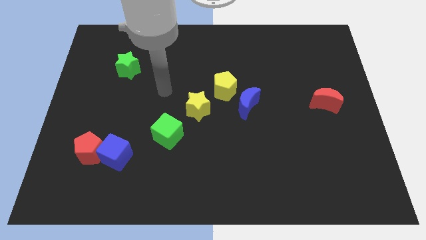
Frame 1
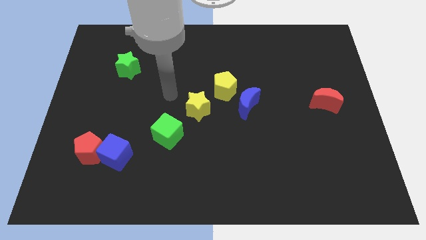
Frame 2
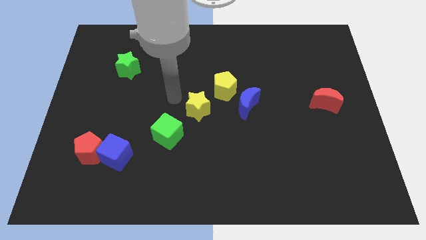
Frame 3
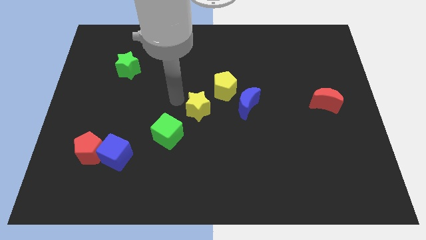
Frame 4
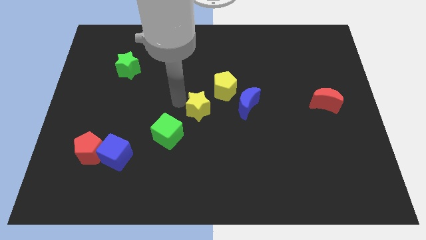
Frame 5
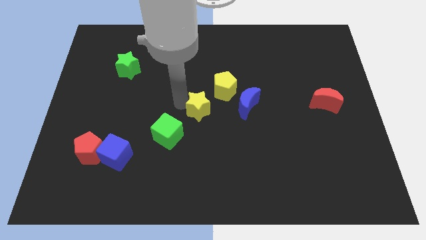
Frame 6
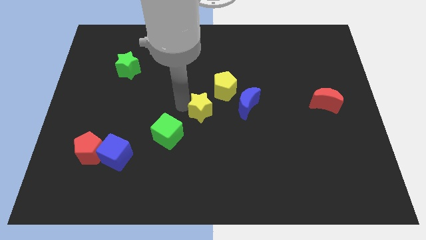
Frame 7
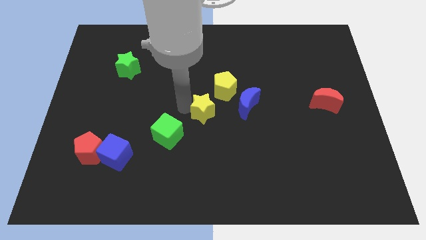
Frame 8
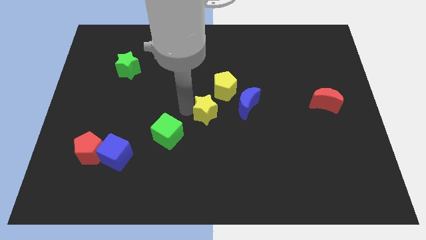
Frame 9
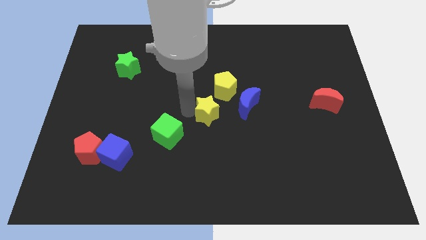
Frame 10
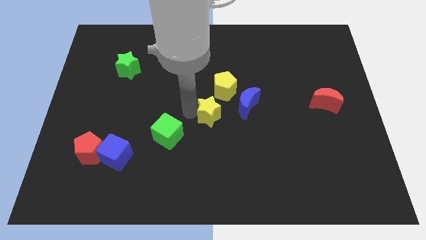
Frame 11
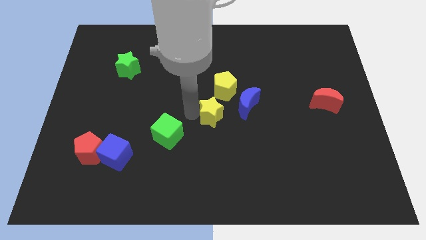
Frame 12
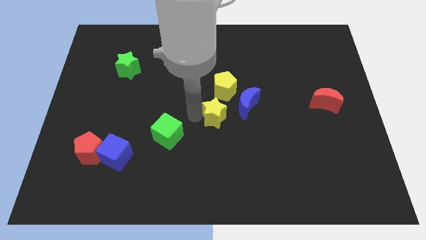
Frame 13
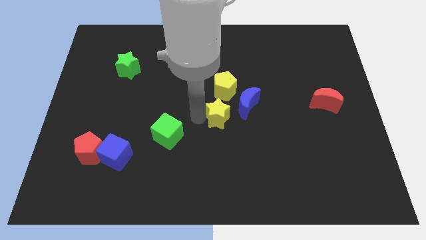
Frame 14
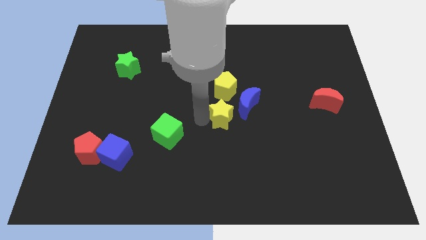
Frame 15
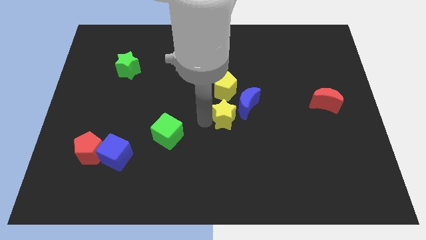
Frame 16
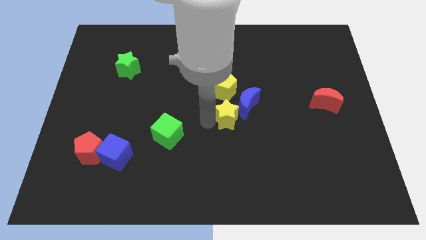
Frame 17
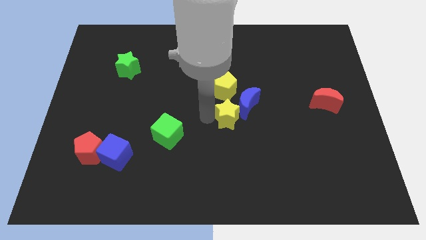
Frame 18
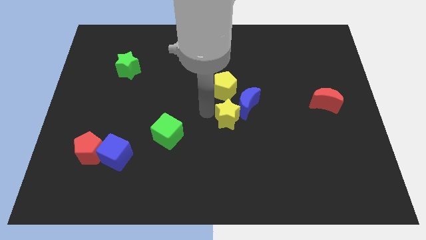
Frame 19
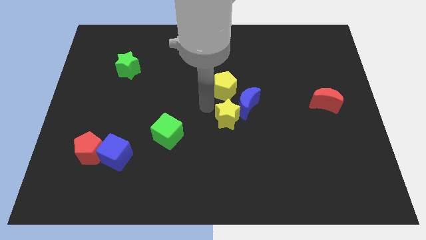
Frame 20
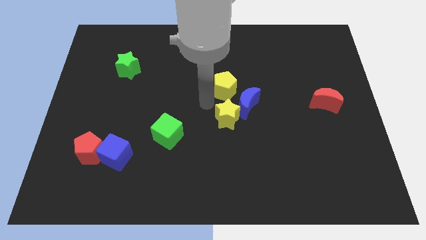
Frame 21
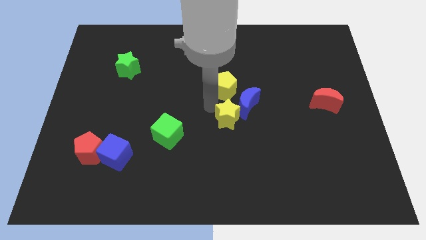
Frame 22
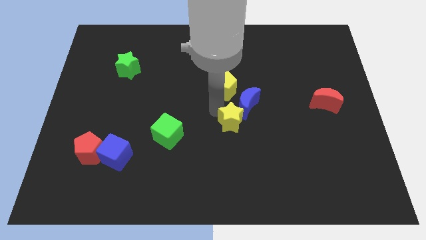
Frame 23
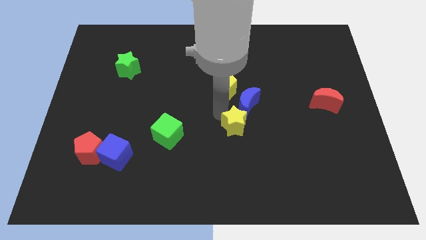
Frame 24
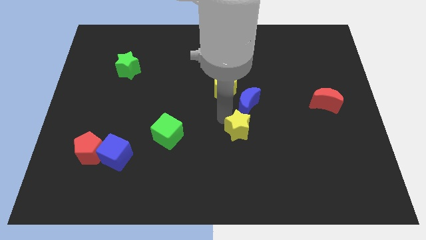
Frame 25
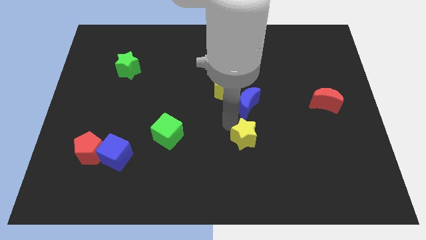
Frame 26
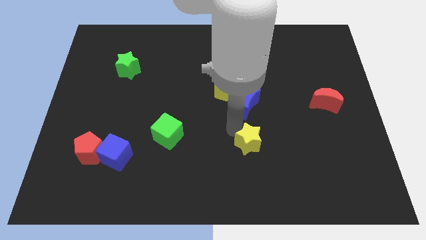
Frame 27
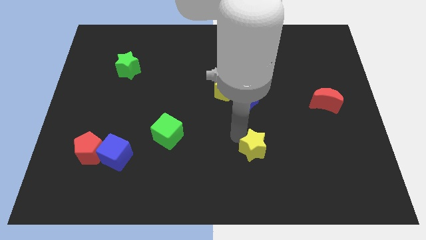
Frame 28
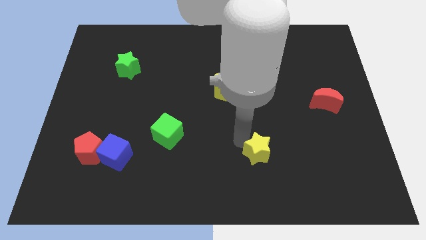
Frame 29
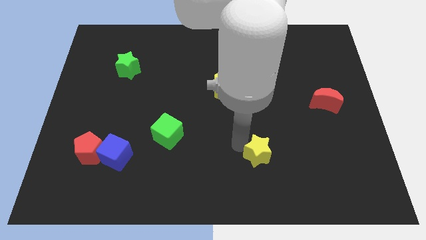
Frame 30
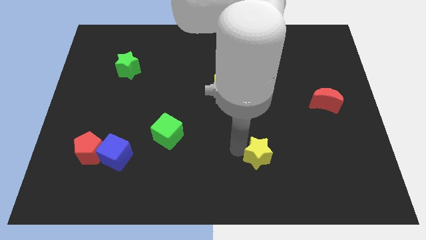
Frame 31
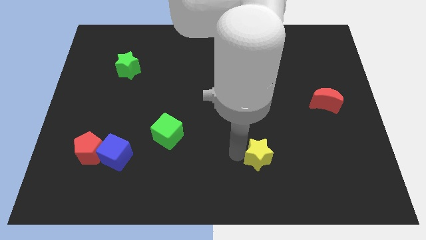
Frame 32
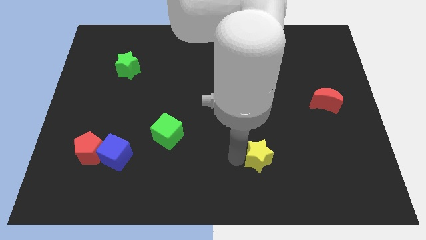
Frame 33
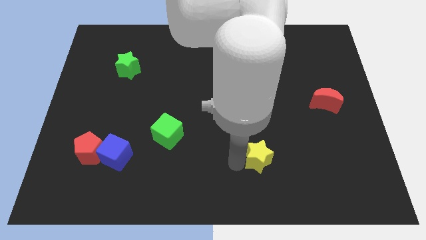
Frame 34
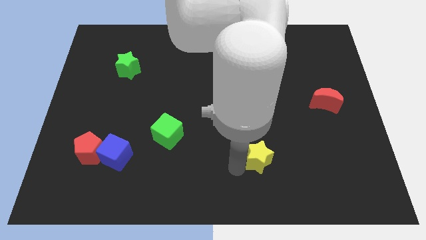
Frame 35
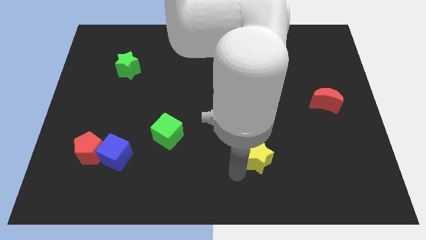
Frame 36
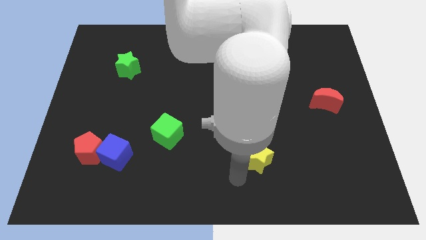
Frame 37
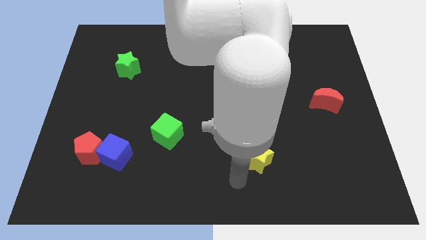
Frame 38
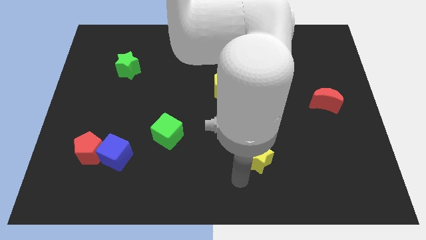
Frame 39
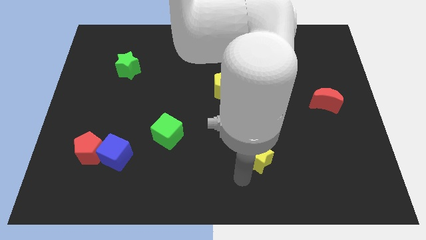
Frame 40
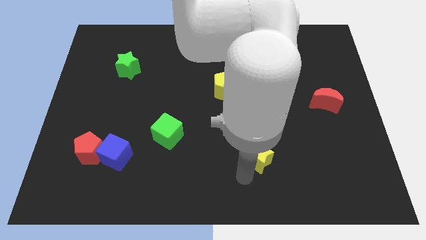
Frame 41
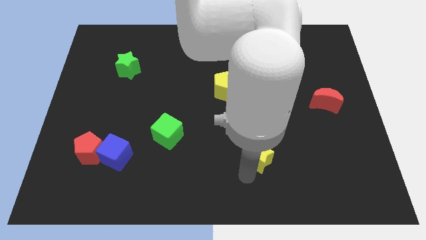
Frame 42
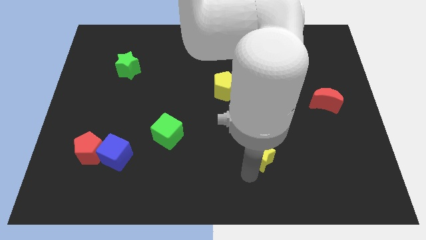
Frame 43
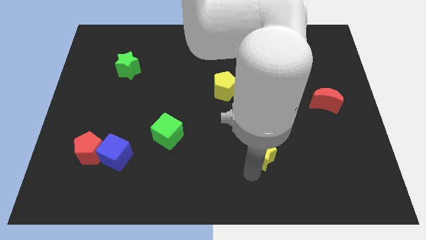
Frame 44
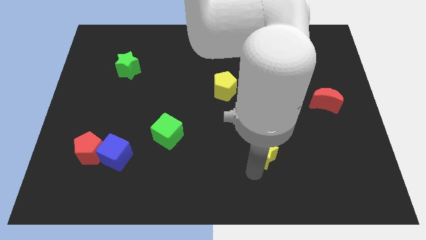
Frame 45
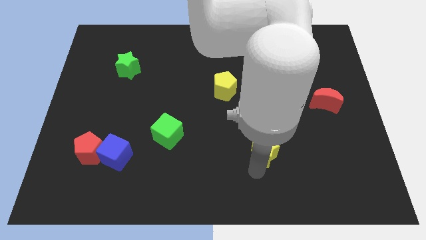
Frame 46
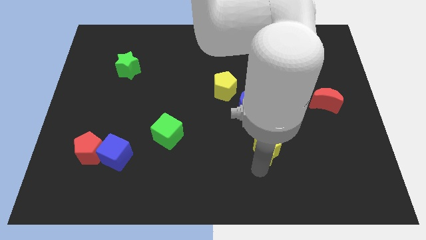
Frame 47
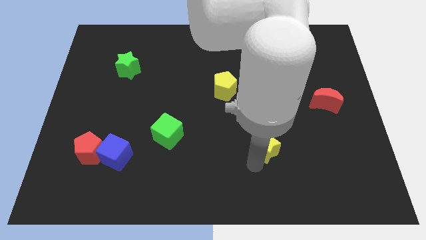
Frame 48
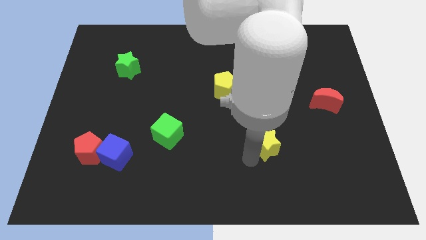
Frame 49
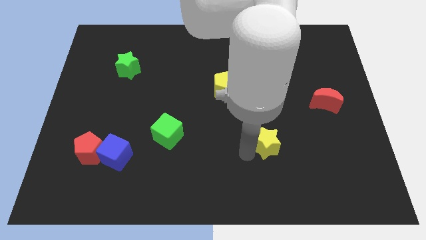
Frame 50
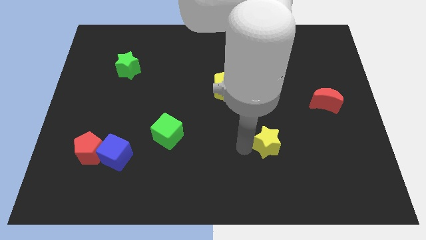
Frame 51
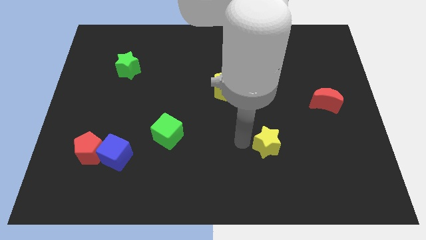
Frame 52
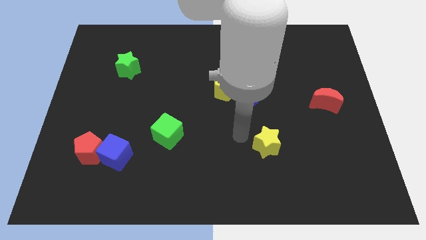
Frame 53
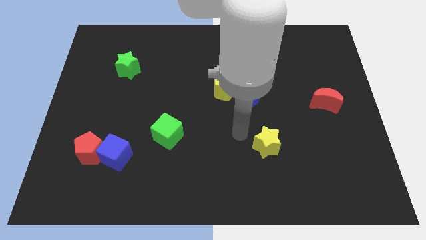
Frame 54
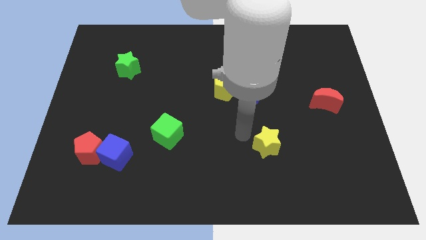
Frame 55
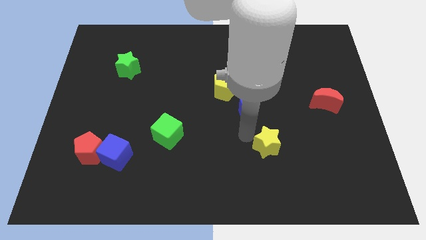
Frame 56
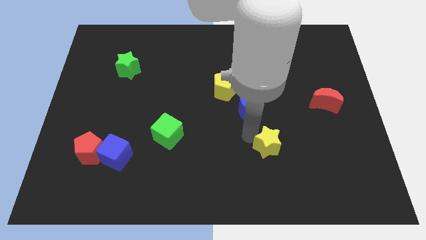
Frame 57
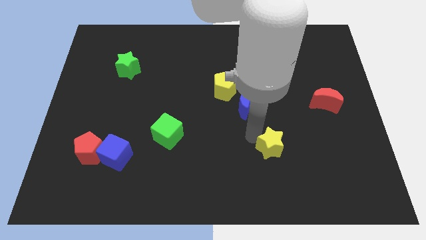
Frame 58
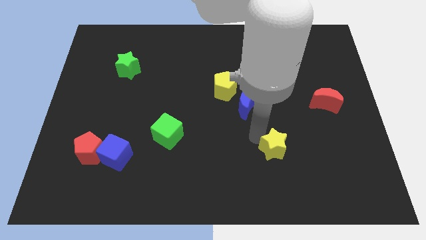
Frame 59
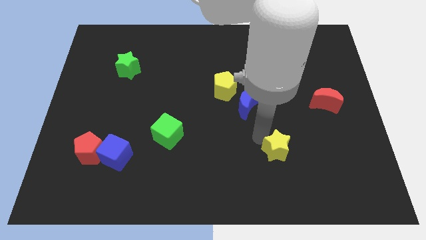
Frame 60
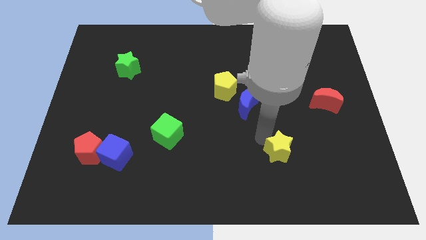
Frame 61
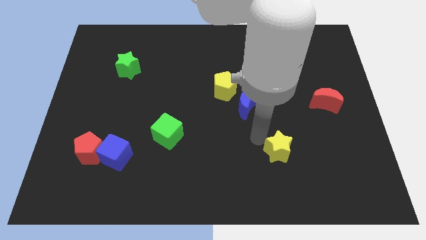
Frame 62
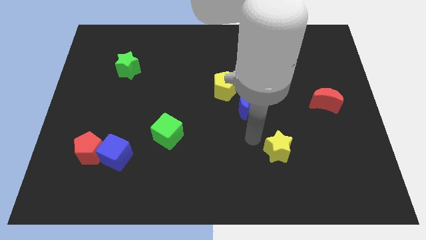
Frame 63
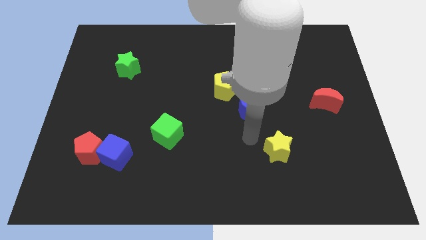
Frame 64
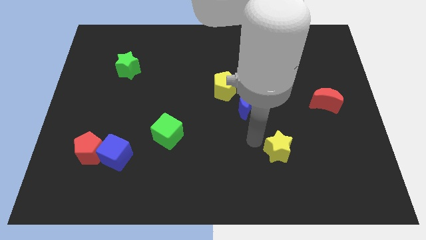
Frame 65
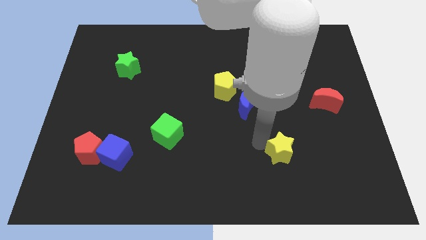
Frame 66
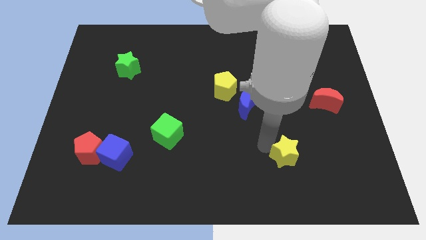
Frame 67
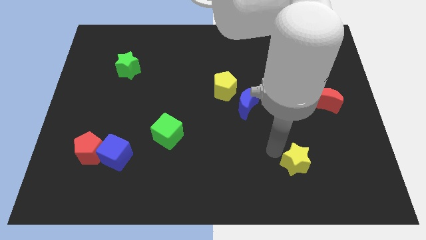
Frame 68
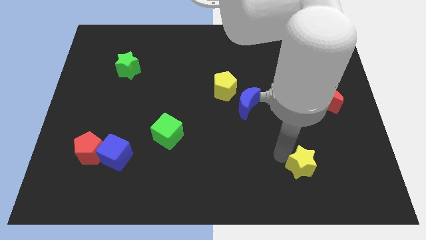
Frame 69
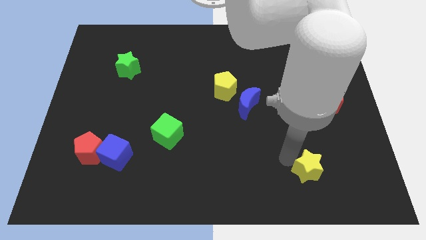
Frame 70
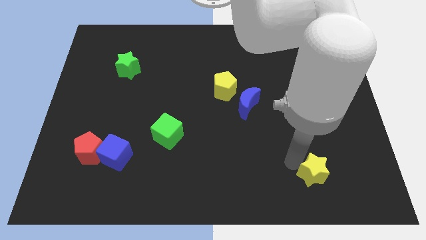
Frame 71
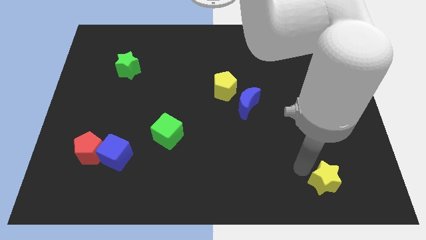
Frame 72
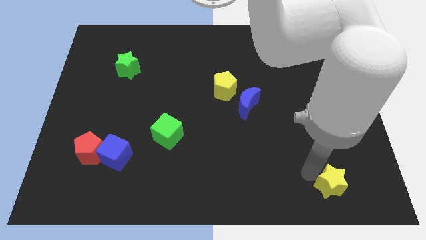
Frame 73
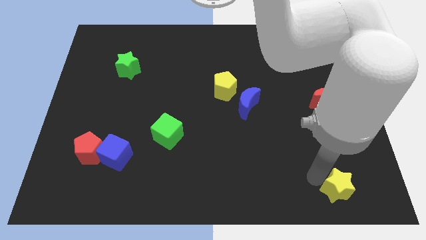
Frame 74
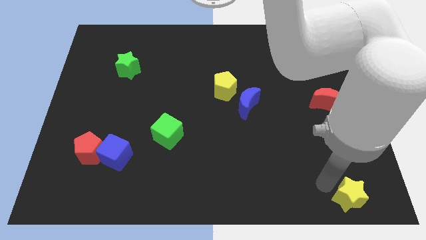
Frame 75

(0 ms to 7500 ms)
move the yellow star to the bottom right corner

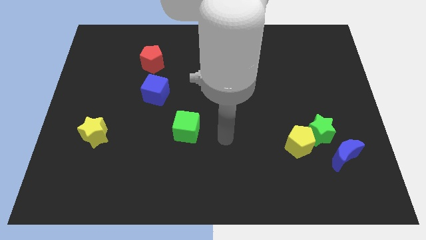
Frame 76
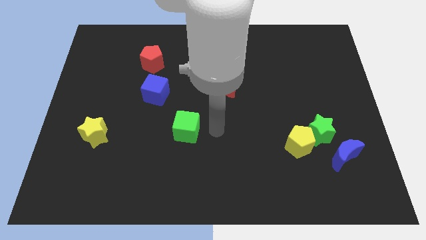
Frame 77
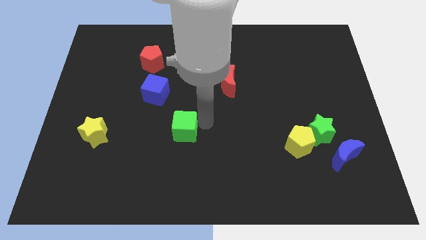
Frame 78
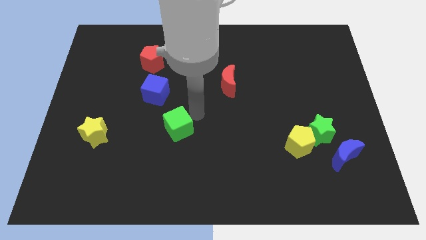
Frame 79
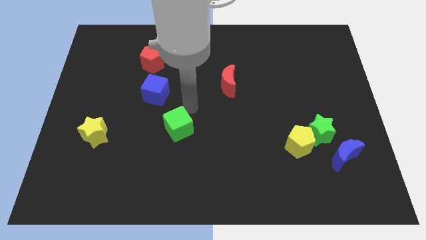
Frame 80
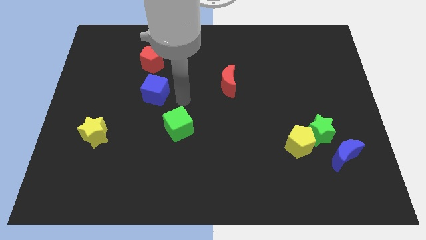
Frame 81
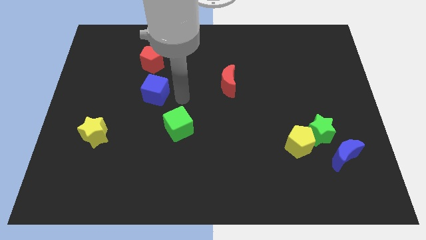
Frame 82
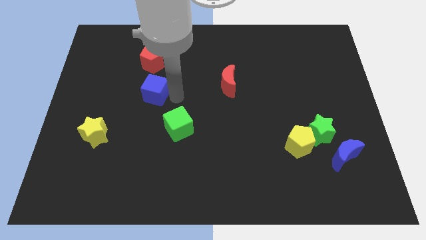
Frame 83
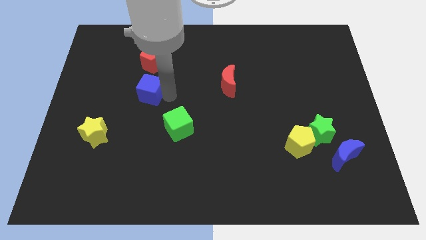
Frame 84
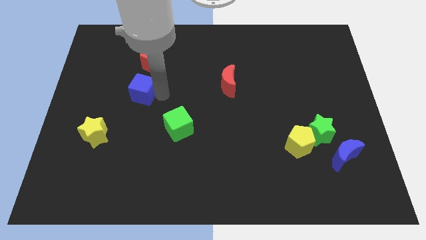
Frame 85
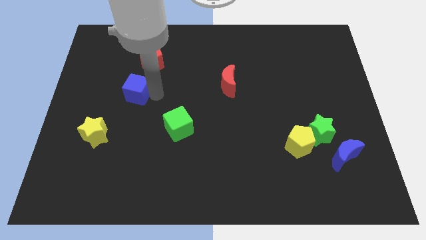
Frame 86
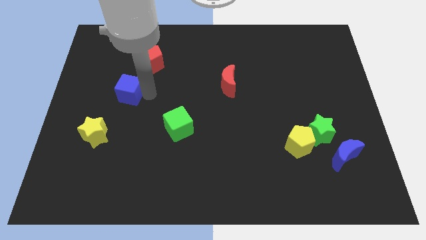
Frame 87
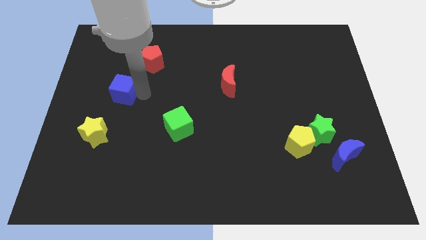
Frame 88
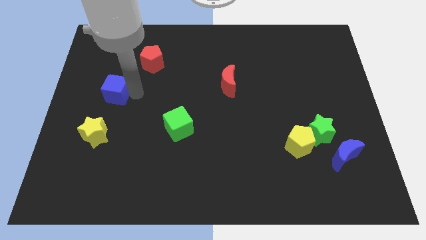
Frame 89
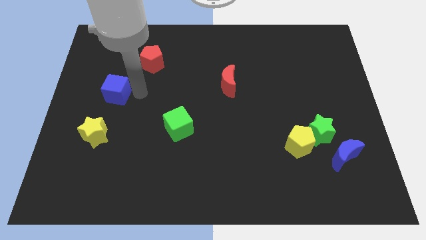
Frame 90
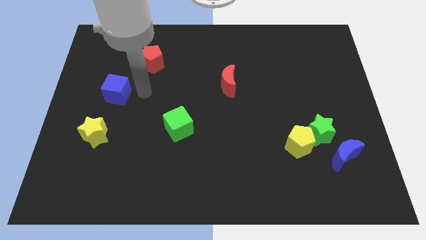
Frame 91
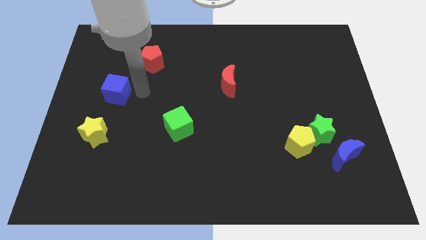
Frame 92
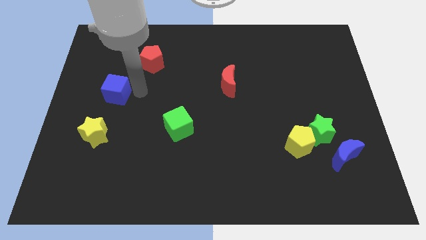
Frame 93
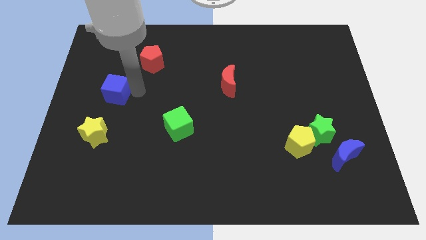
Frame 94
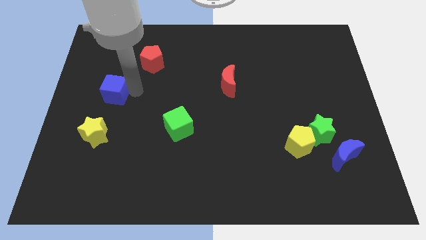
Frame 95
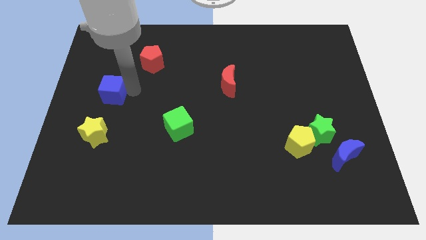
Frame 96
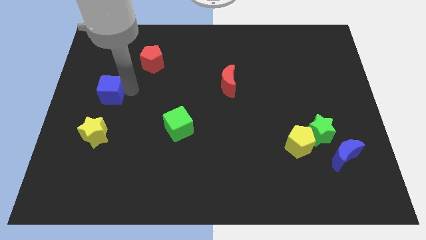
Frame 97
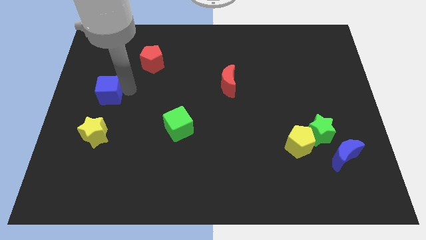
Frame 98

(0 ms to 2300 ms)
put the blue cube to the left side of the board
